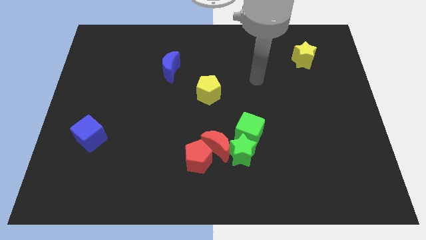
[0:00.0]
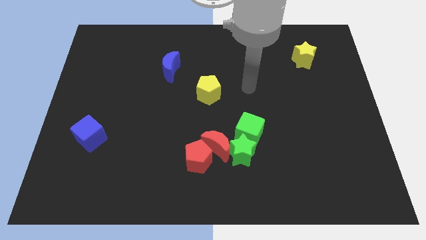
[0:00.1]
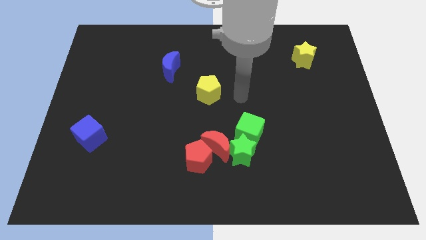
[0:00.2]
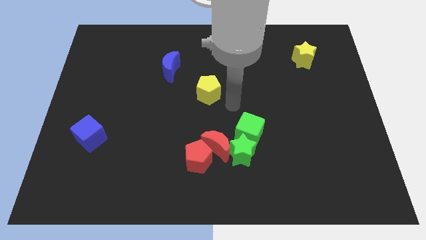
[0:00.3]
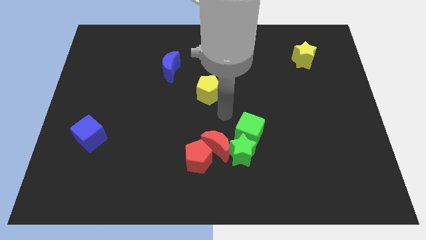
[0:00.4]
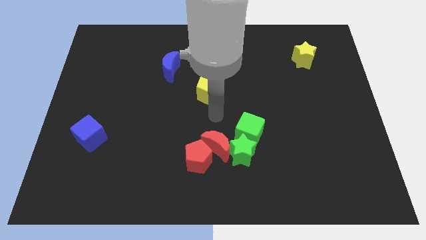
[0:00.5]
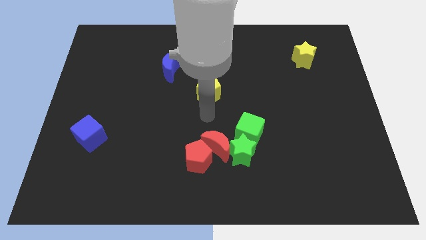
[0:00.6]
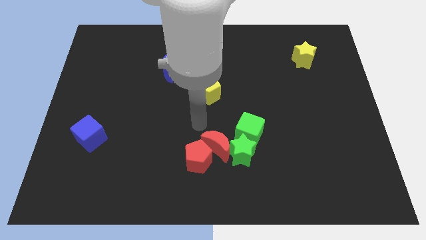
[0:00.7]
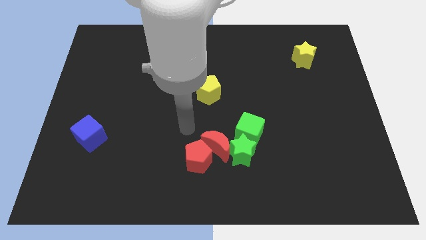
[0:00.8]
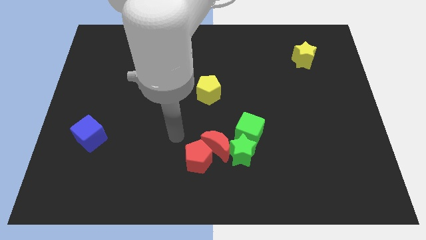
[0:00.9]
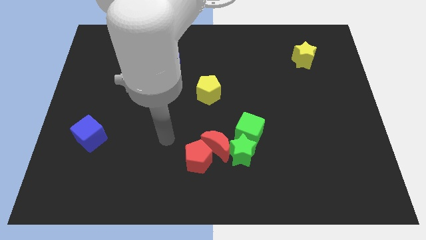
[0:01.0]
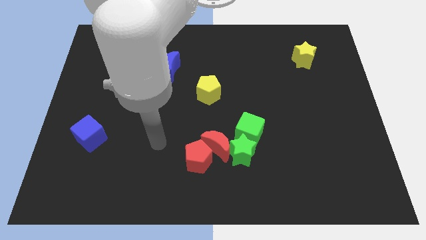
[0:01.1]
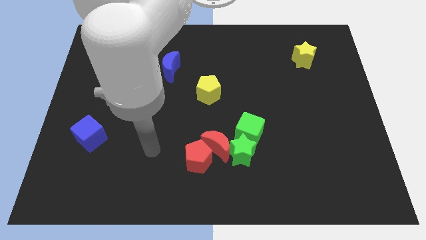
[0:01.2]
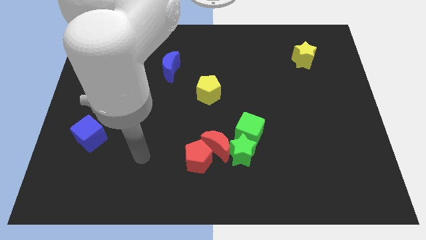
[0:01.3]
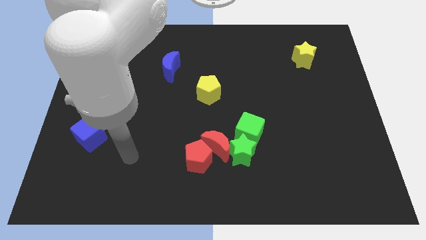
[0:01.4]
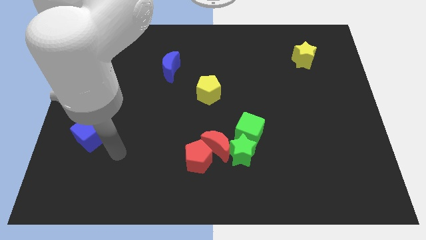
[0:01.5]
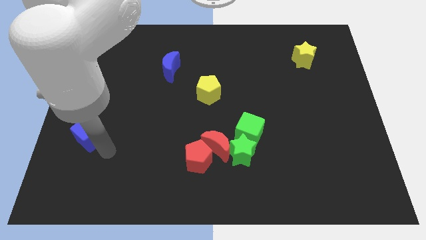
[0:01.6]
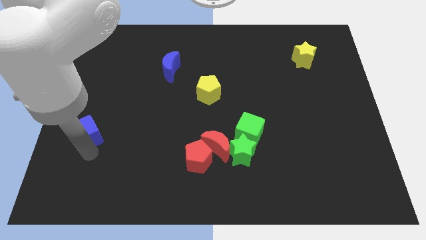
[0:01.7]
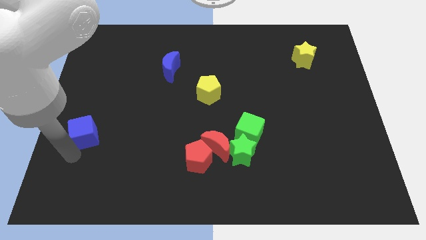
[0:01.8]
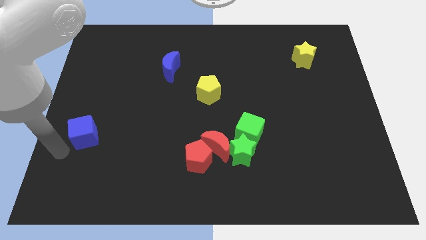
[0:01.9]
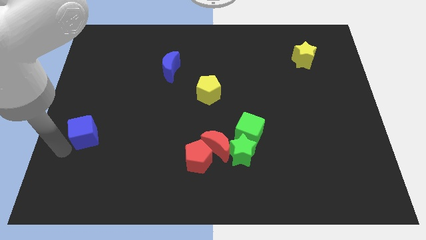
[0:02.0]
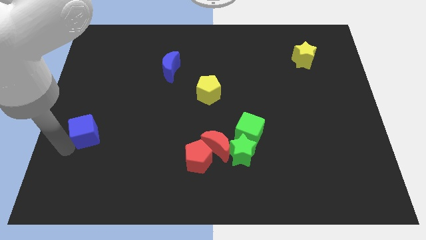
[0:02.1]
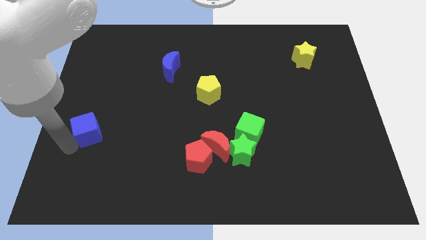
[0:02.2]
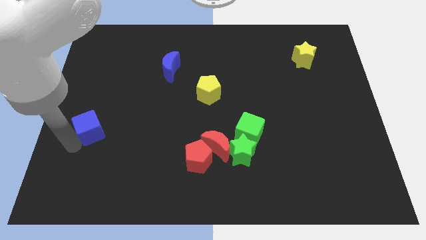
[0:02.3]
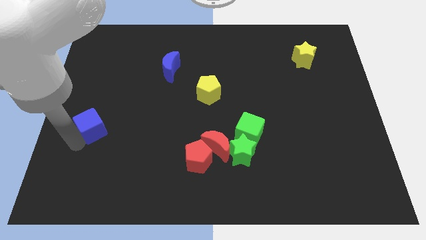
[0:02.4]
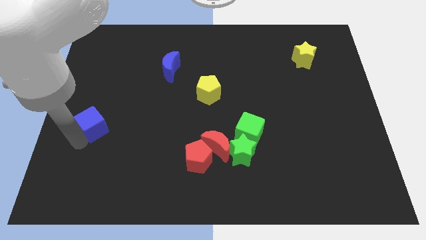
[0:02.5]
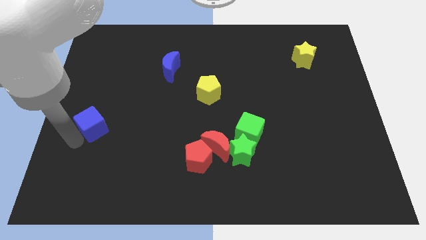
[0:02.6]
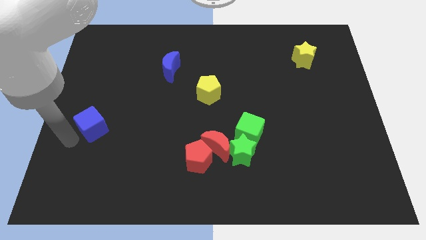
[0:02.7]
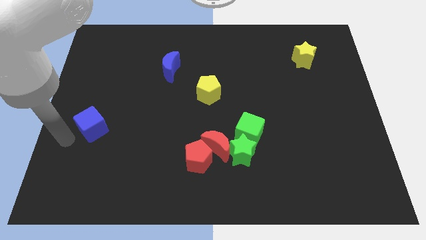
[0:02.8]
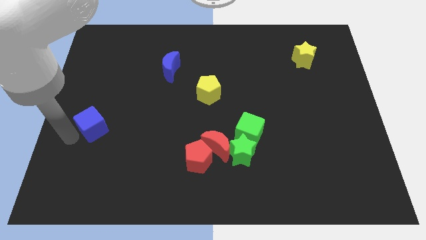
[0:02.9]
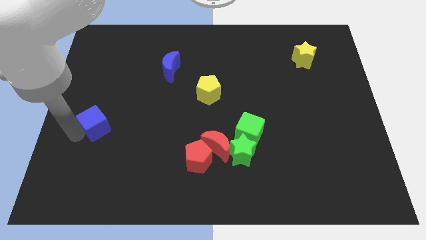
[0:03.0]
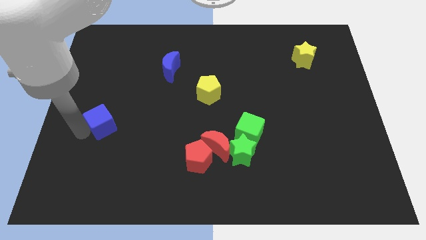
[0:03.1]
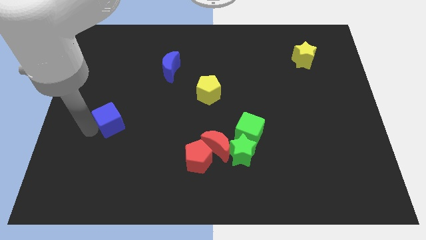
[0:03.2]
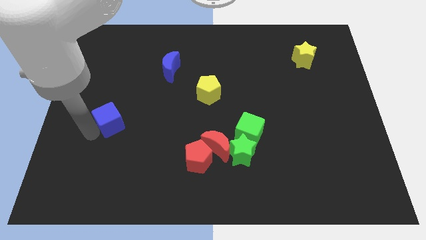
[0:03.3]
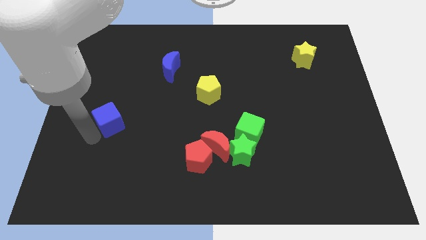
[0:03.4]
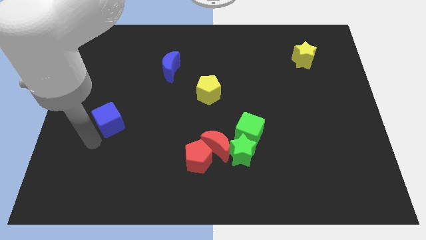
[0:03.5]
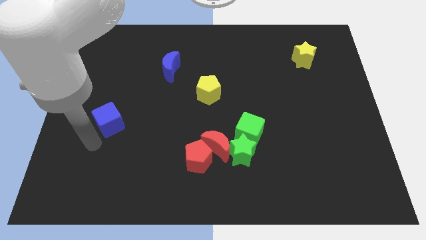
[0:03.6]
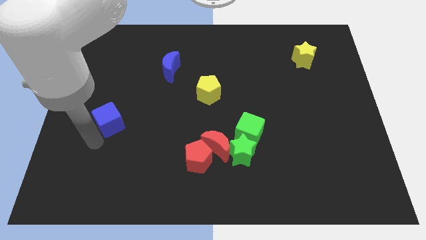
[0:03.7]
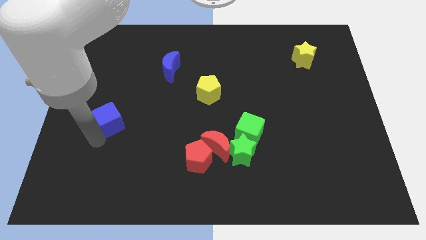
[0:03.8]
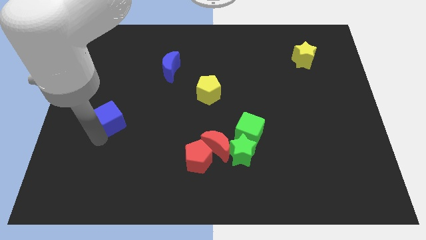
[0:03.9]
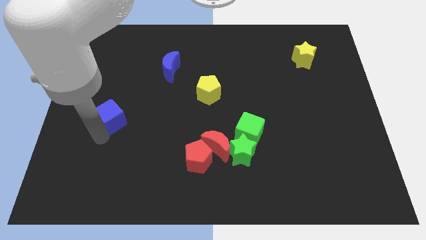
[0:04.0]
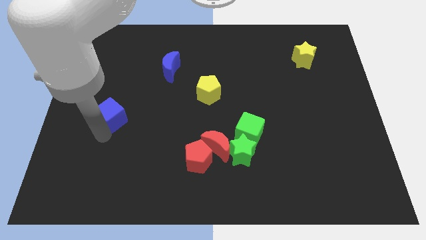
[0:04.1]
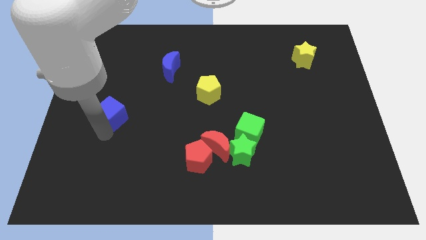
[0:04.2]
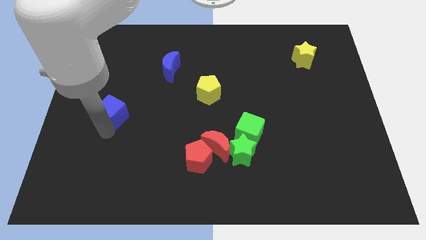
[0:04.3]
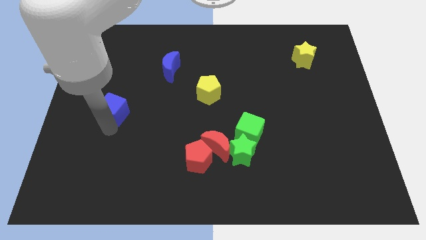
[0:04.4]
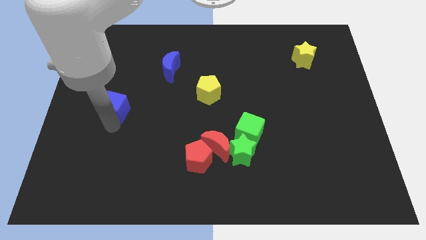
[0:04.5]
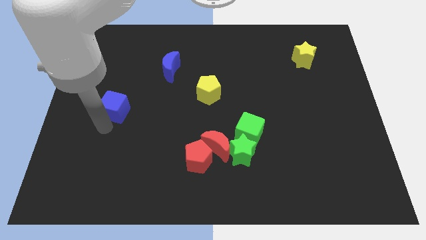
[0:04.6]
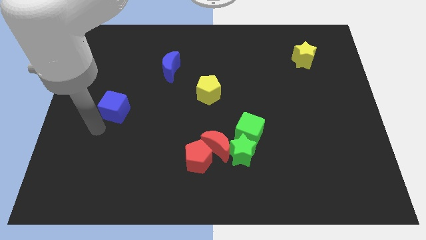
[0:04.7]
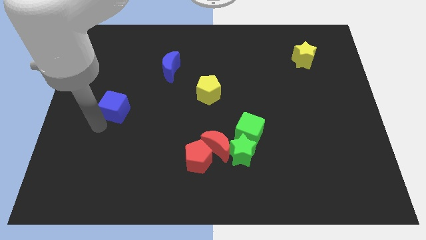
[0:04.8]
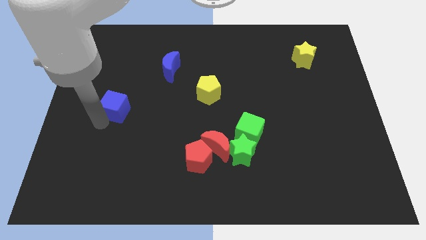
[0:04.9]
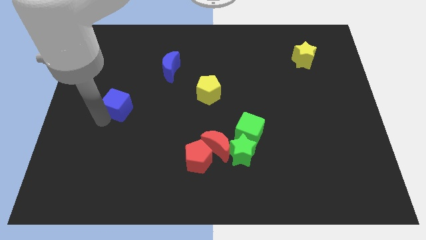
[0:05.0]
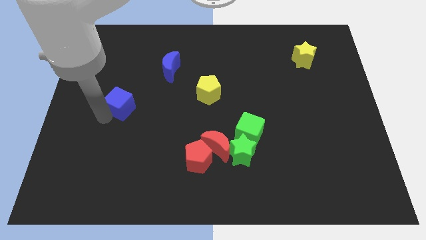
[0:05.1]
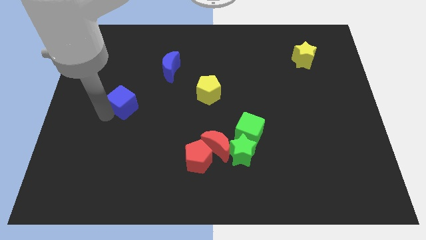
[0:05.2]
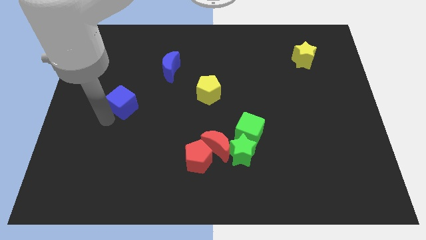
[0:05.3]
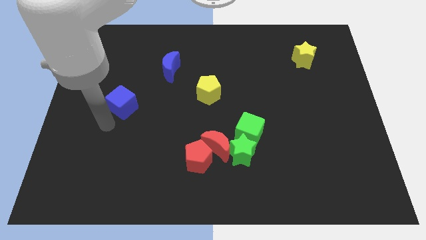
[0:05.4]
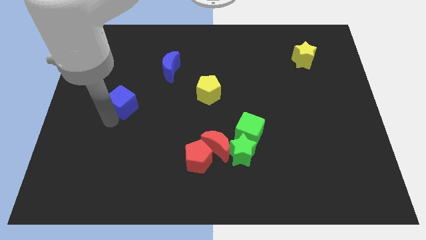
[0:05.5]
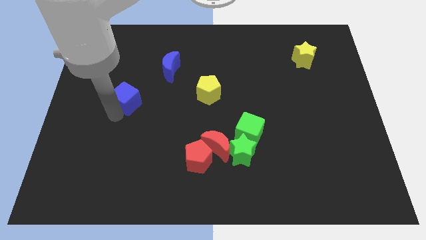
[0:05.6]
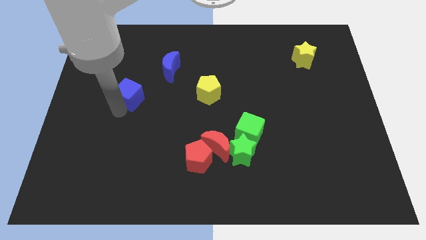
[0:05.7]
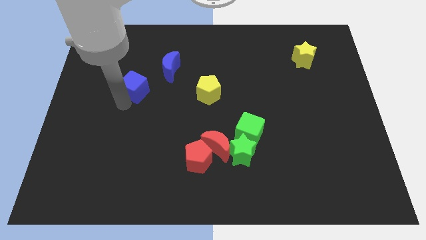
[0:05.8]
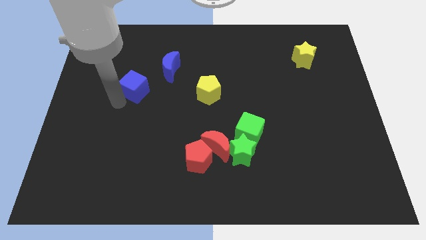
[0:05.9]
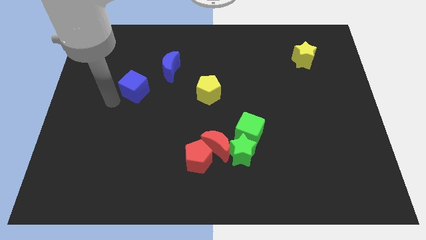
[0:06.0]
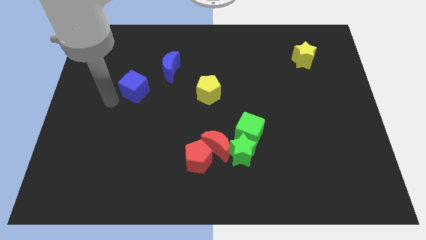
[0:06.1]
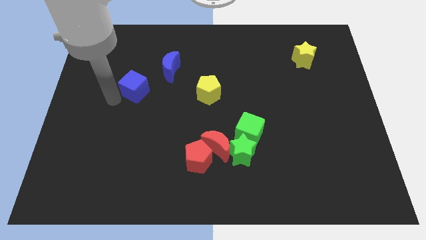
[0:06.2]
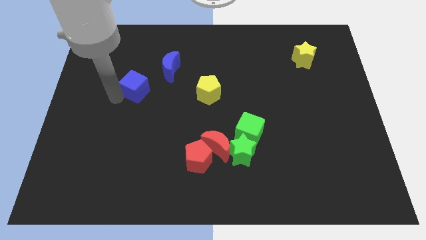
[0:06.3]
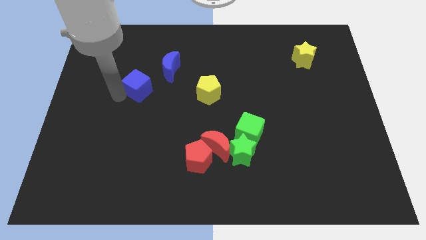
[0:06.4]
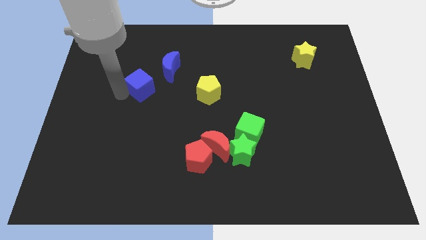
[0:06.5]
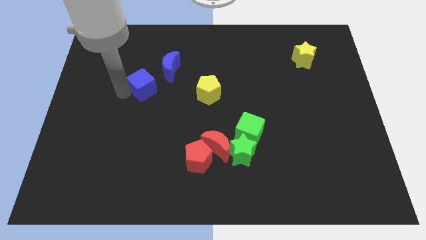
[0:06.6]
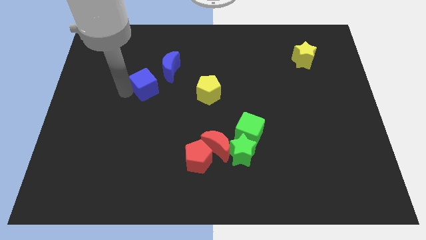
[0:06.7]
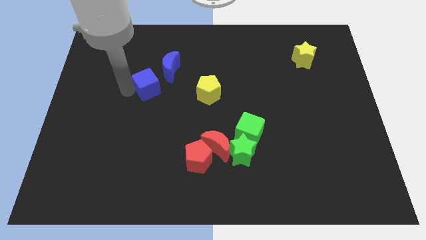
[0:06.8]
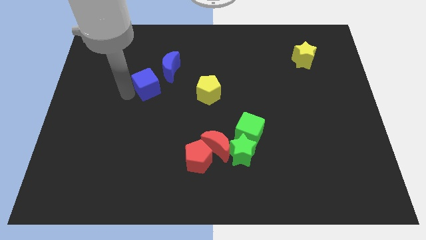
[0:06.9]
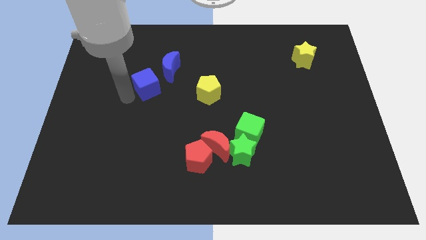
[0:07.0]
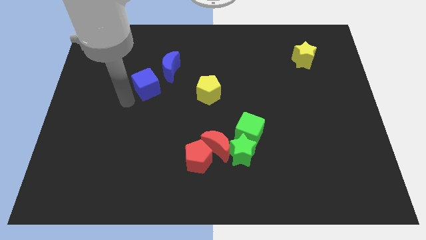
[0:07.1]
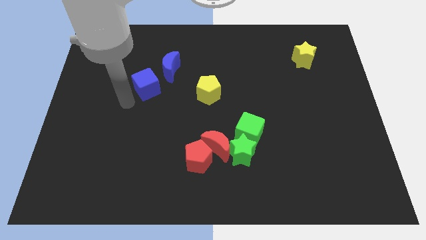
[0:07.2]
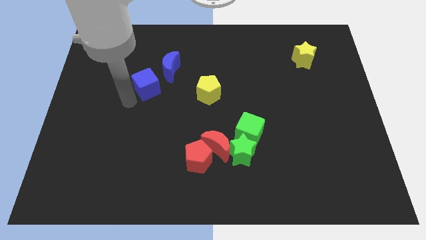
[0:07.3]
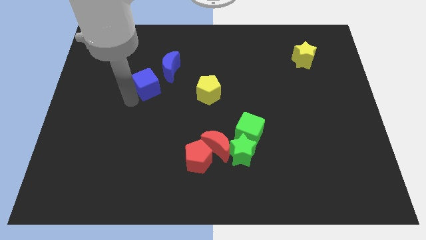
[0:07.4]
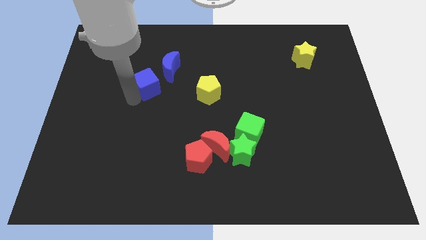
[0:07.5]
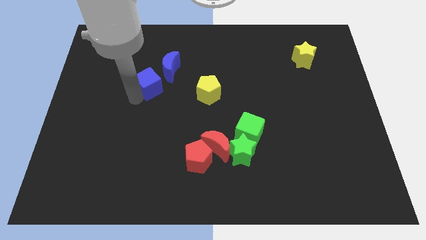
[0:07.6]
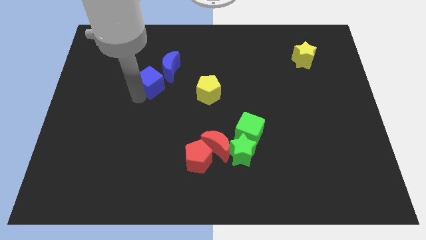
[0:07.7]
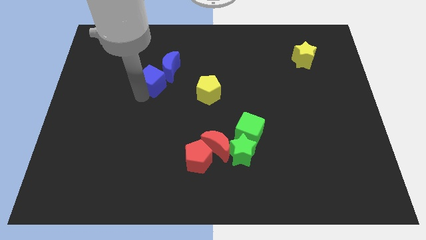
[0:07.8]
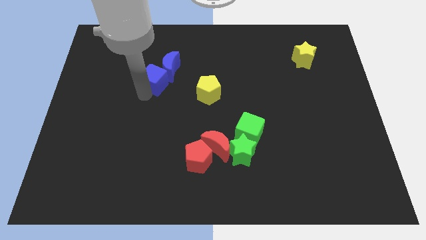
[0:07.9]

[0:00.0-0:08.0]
move the blue cube towards the blue moon

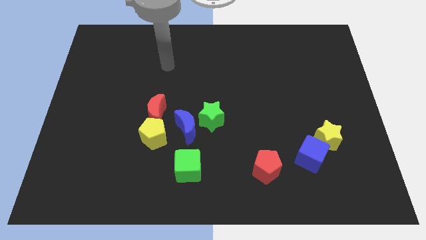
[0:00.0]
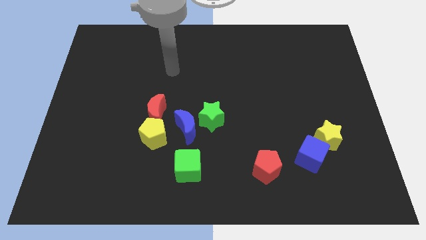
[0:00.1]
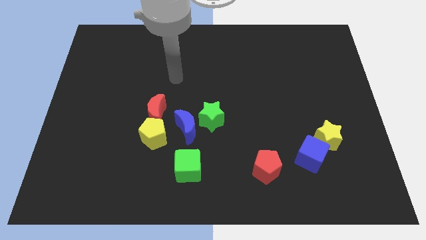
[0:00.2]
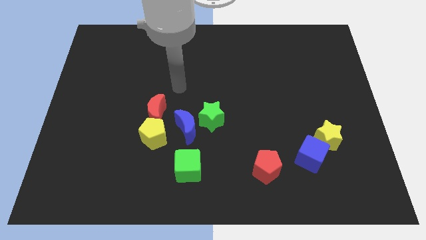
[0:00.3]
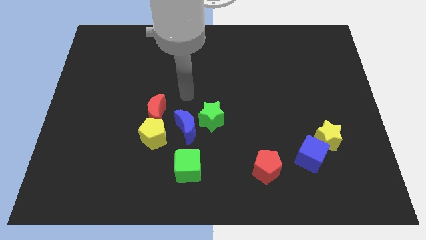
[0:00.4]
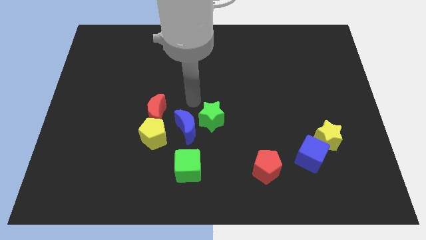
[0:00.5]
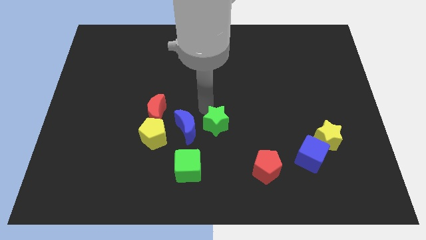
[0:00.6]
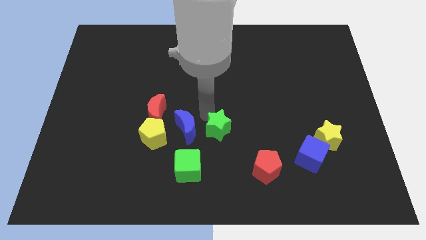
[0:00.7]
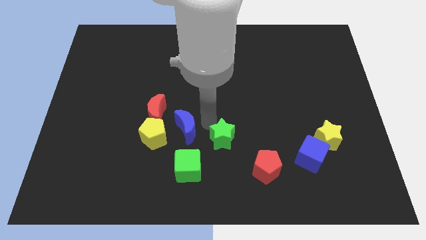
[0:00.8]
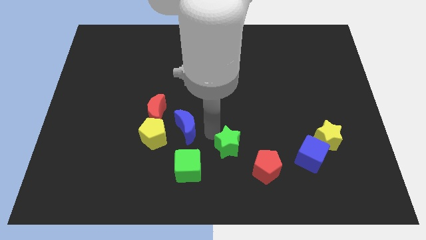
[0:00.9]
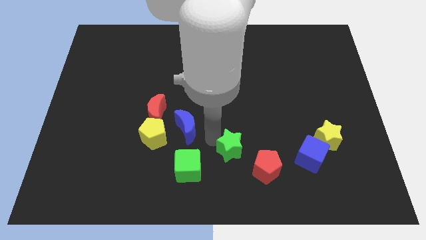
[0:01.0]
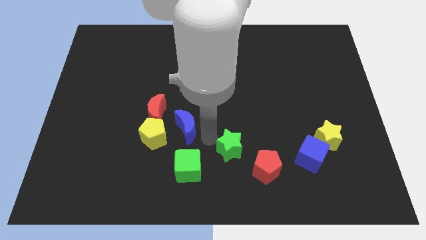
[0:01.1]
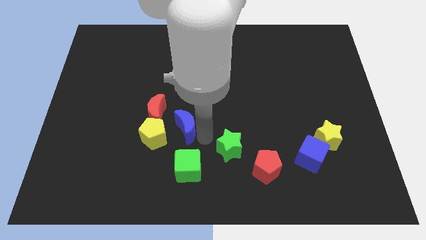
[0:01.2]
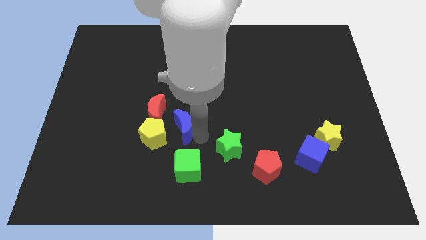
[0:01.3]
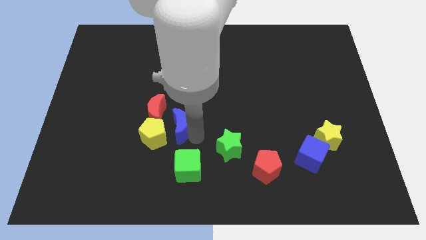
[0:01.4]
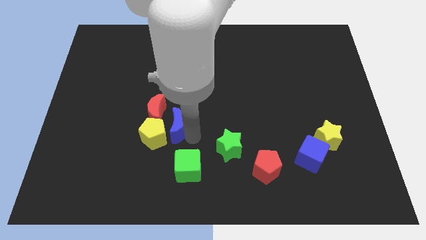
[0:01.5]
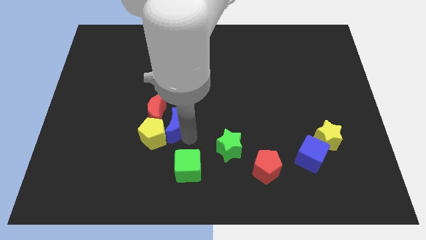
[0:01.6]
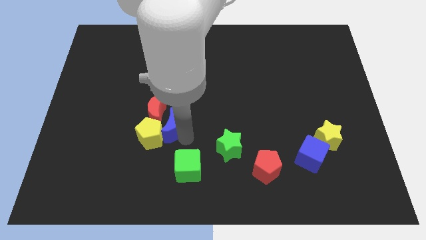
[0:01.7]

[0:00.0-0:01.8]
put the blue moon close to the red moon
